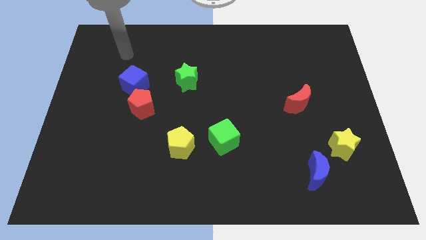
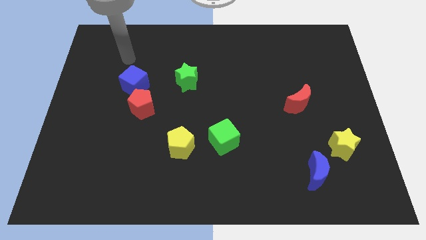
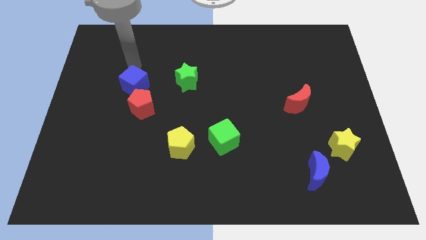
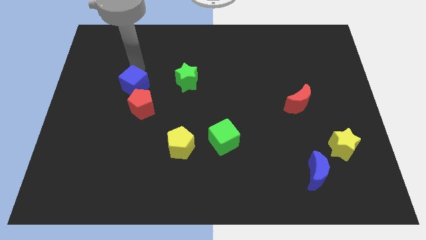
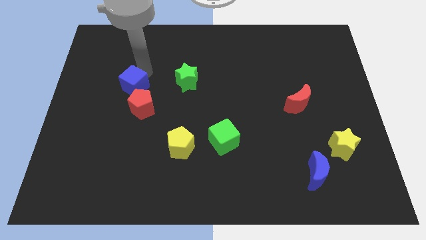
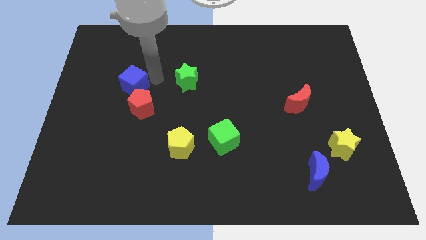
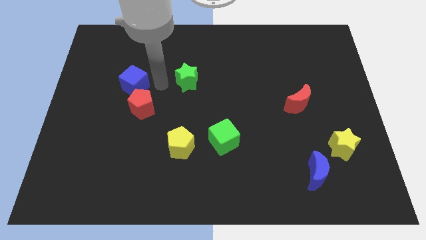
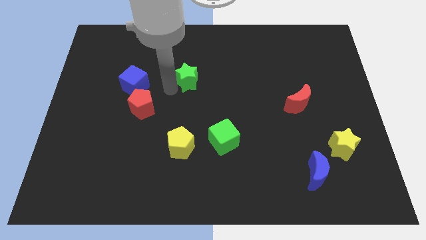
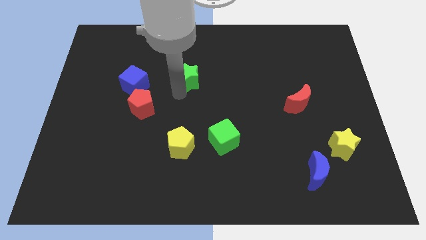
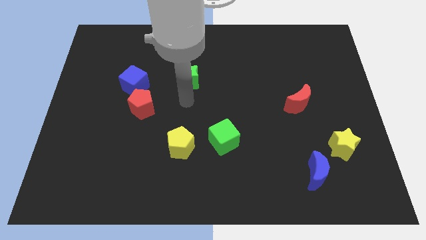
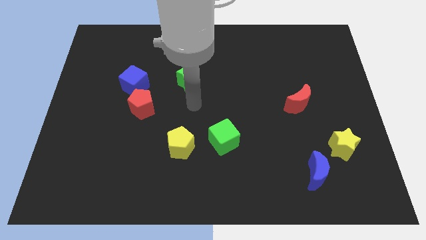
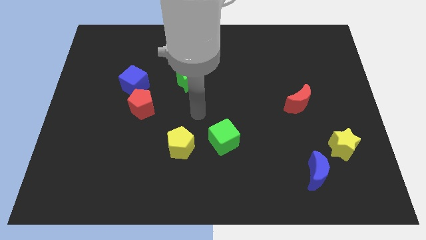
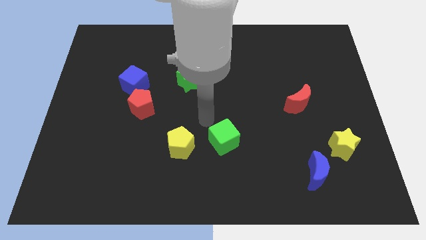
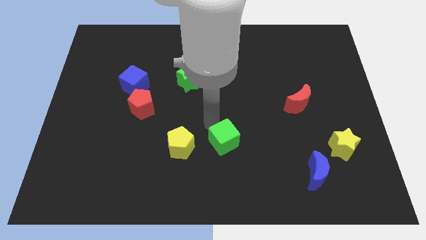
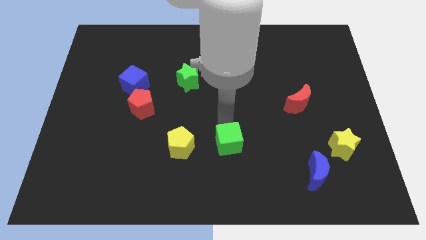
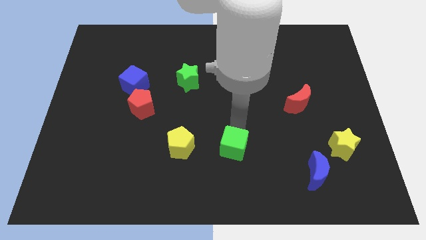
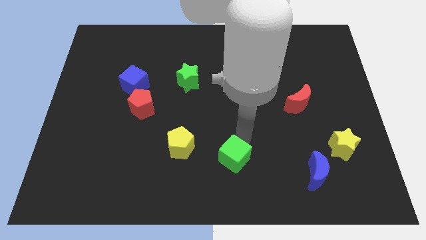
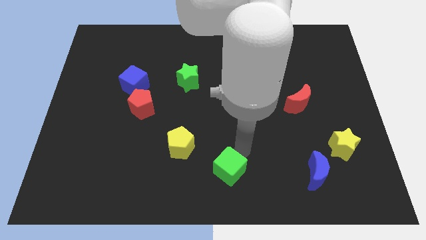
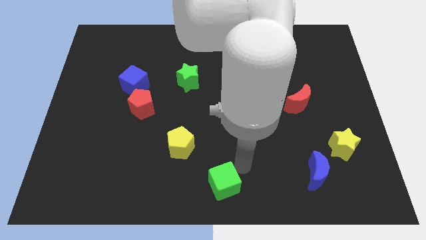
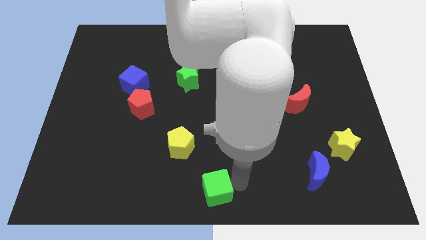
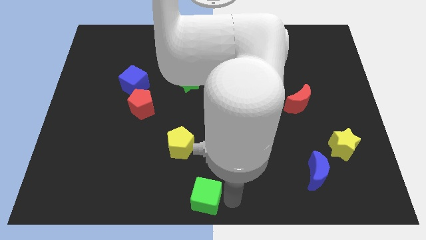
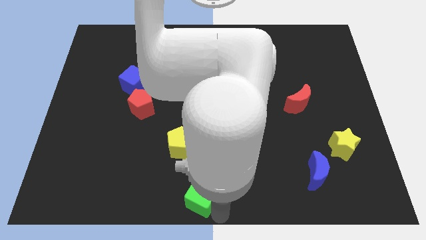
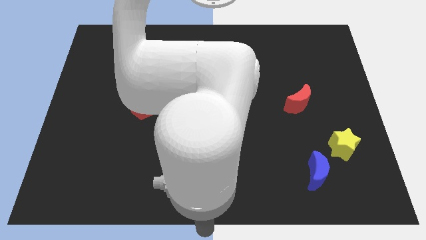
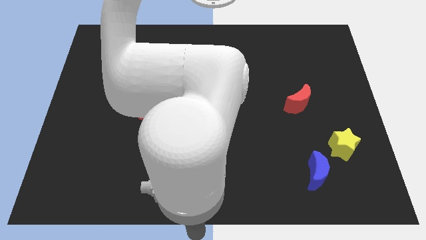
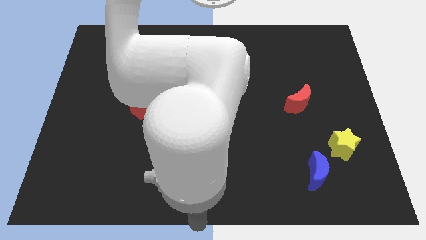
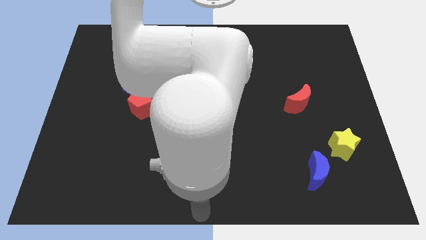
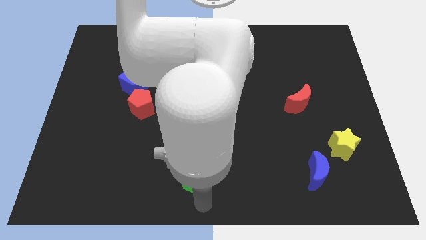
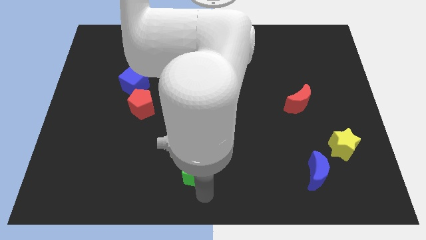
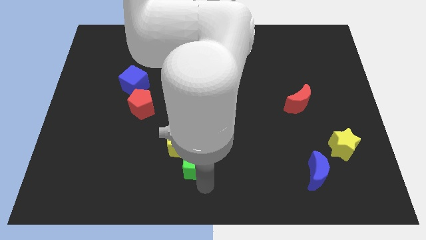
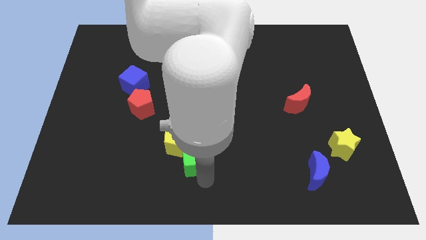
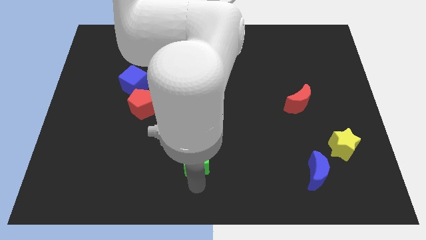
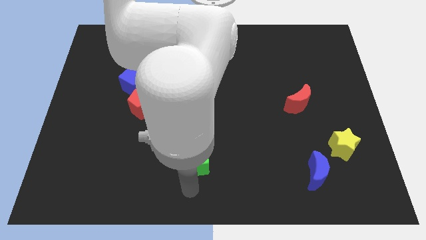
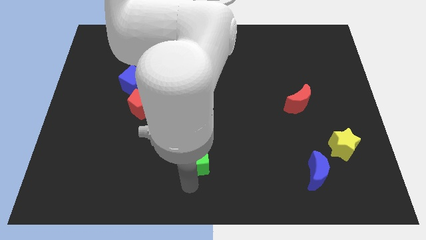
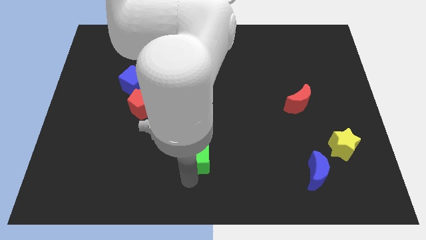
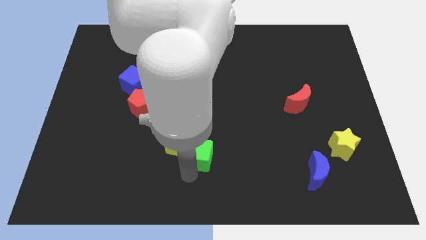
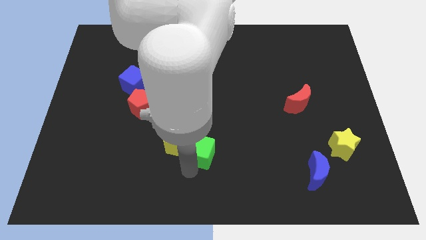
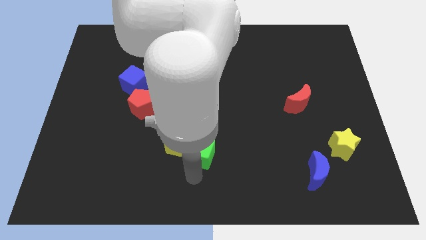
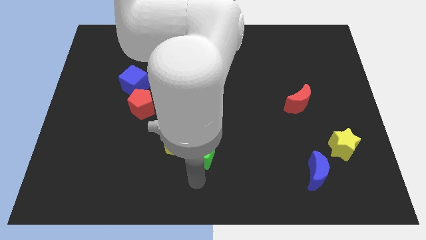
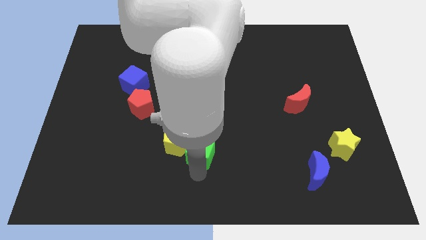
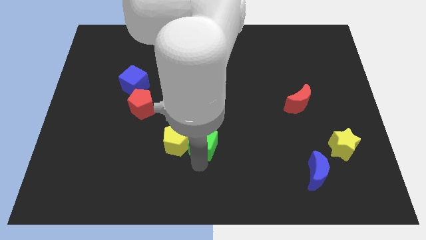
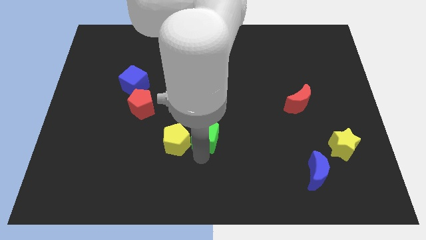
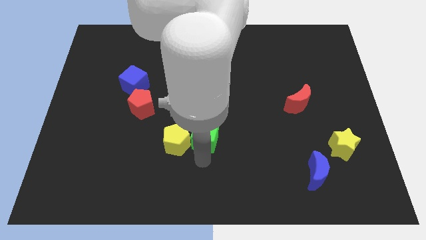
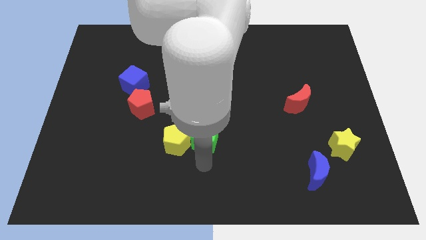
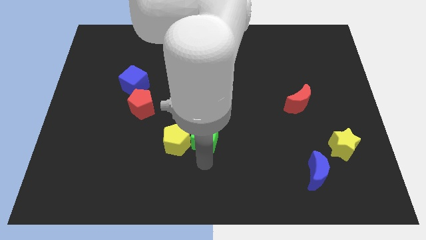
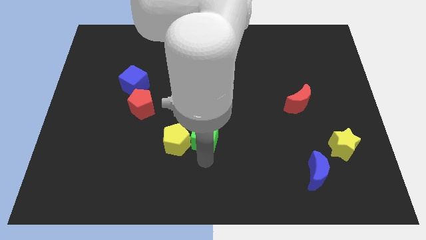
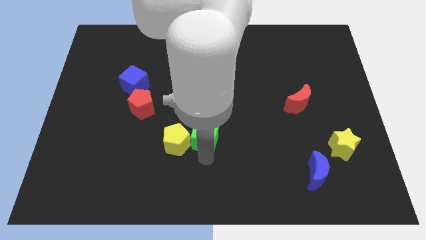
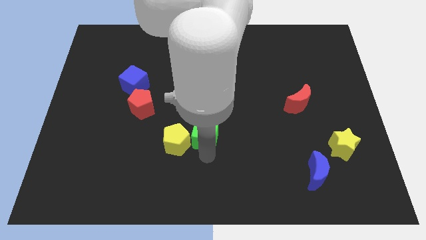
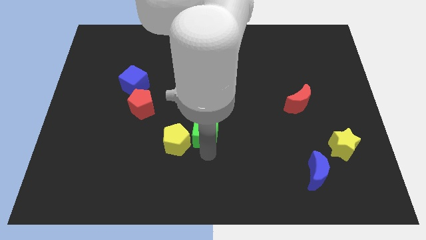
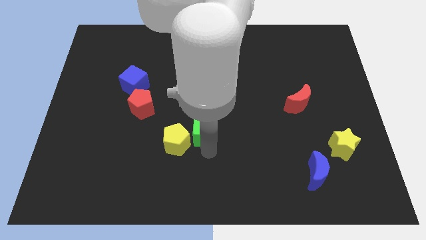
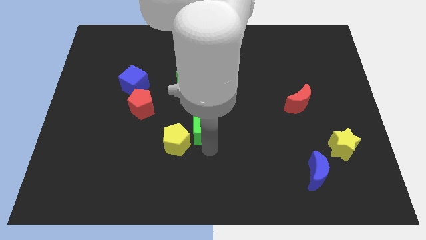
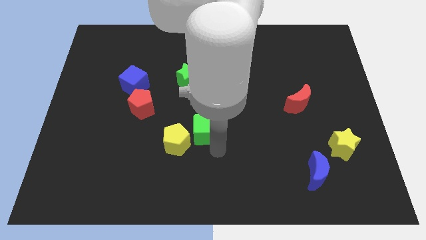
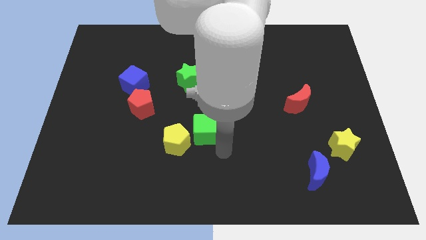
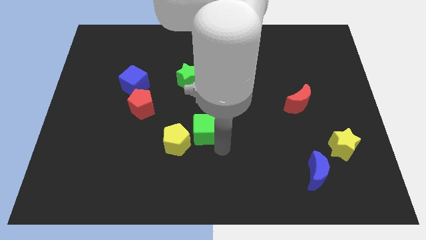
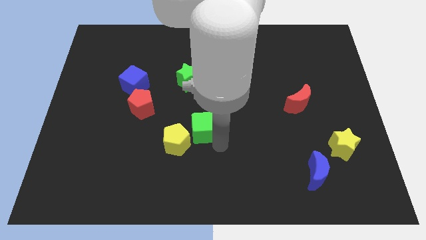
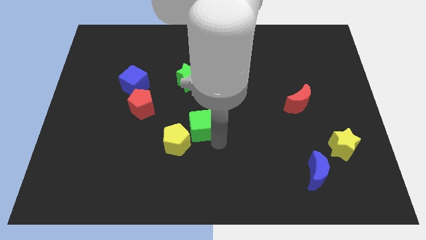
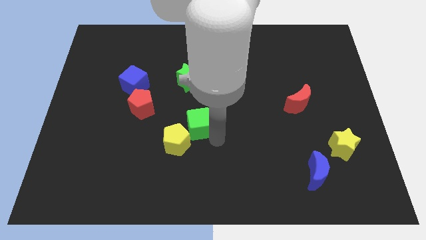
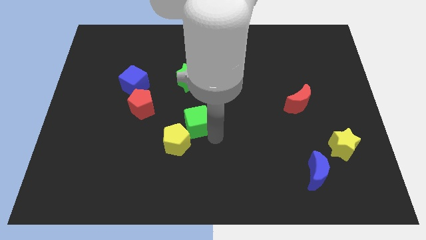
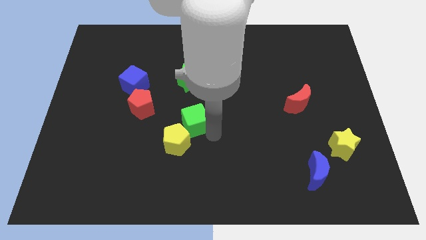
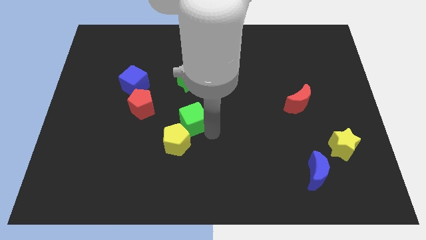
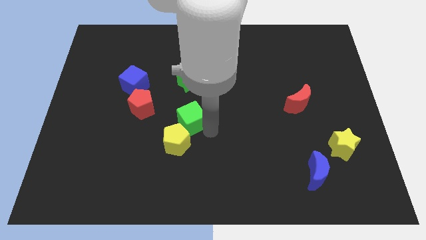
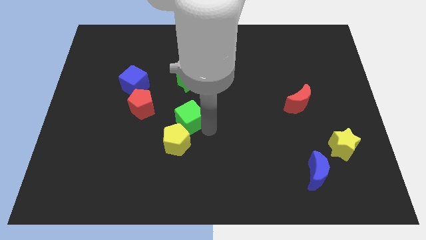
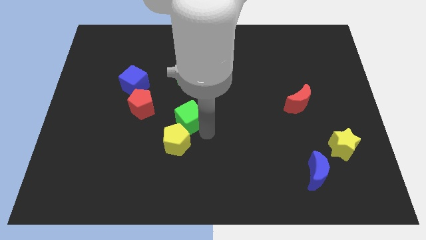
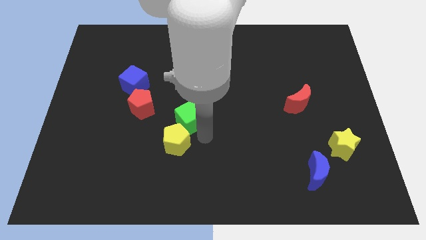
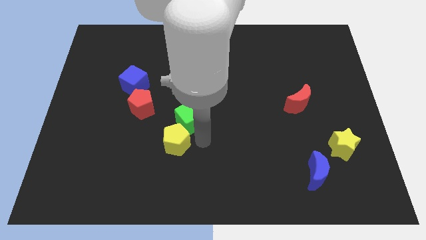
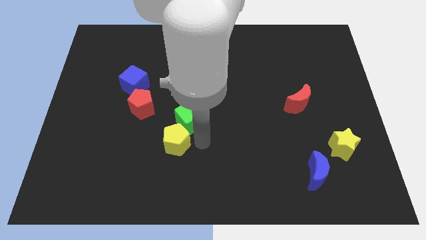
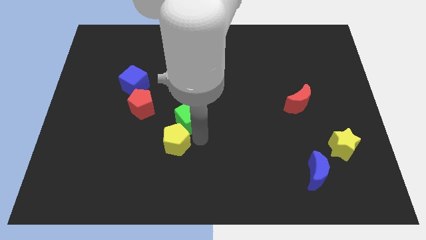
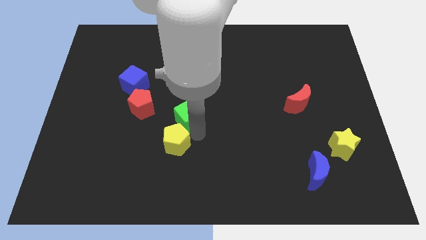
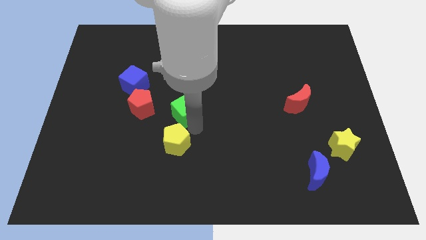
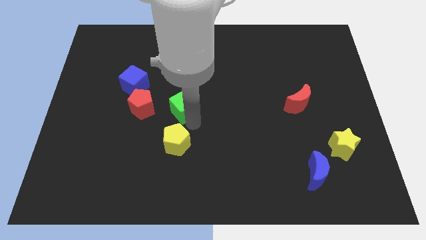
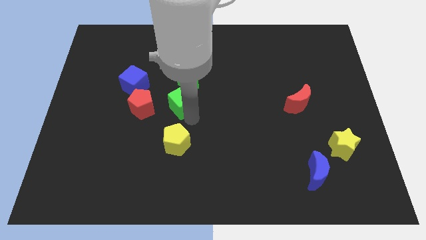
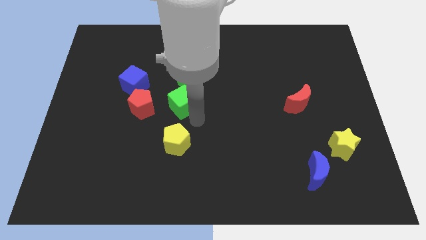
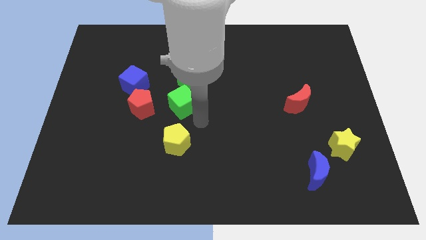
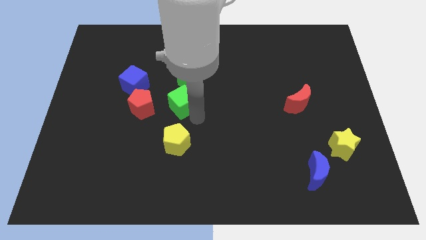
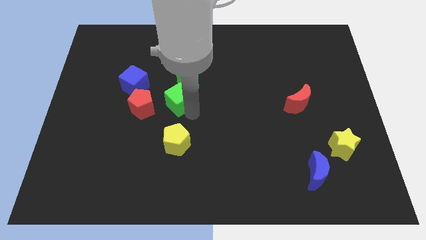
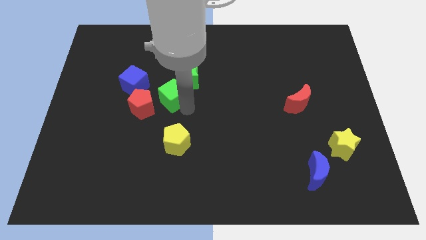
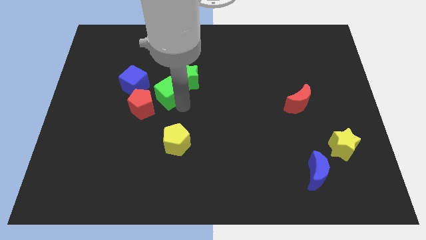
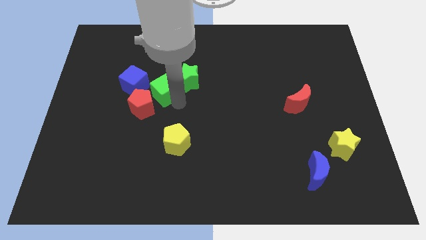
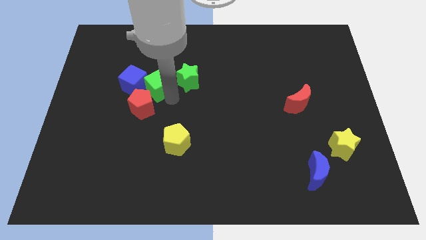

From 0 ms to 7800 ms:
slide the green cube upwards and then left

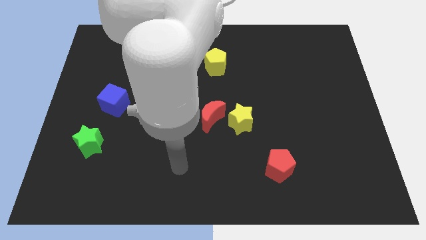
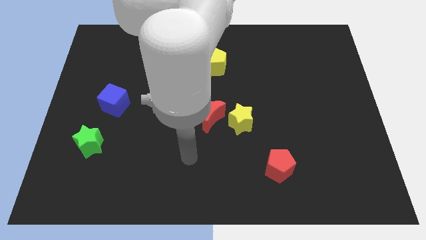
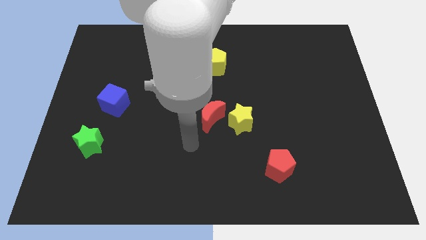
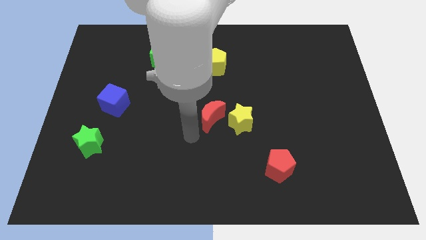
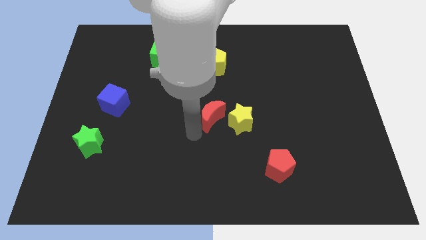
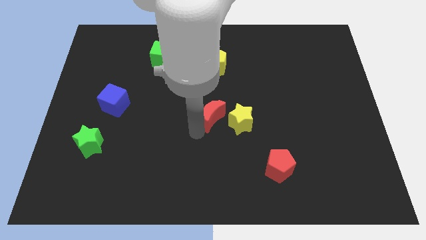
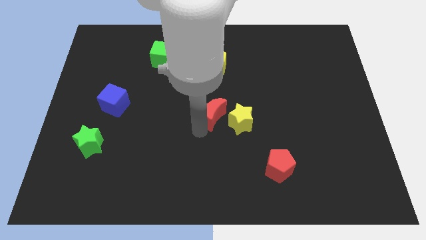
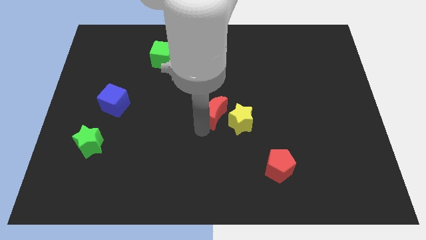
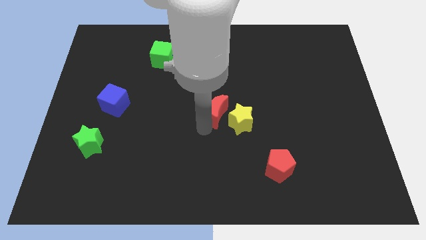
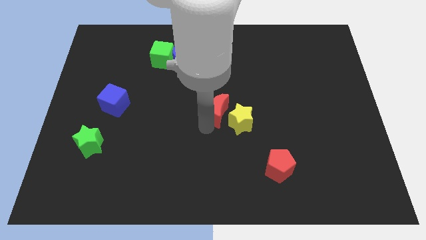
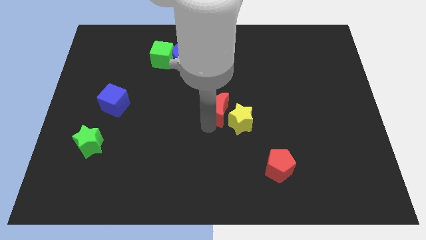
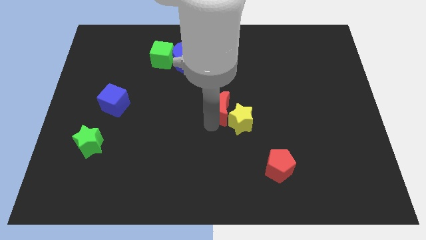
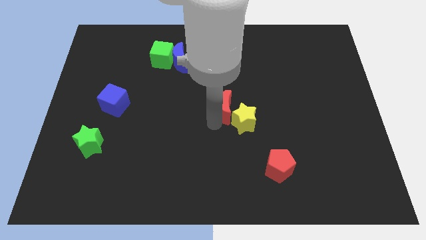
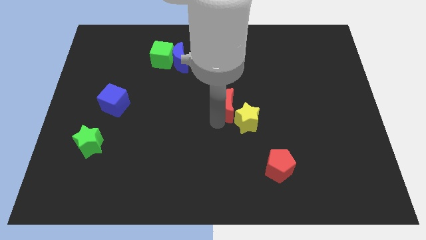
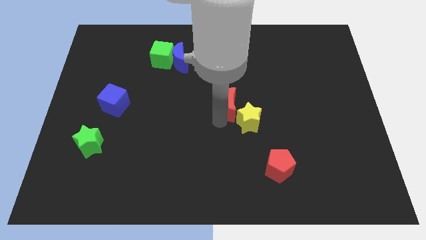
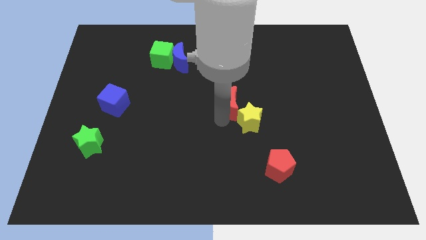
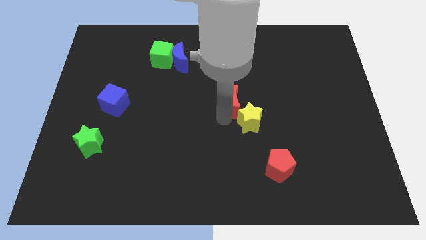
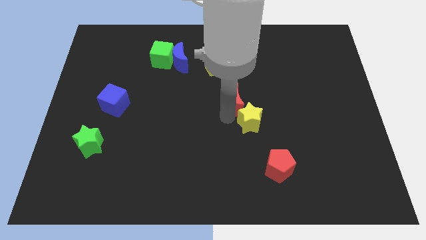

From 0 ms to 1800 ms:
slightly move the red moon upwards and to the right
